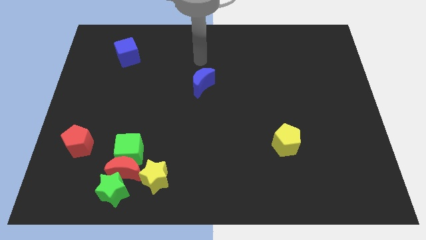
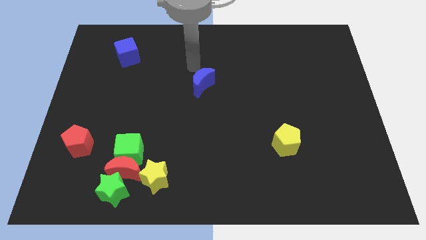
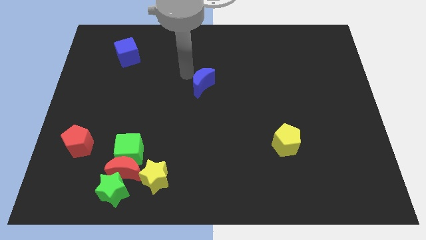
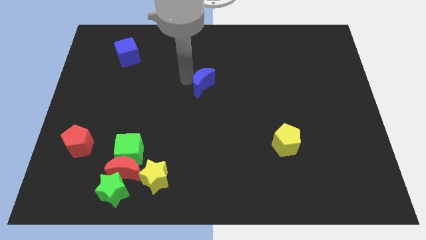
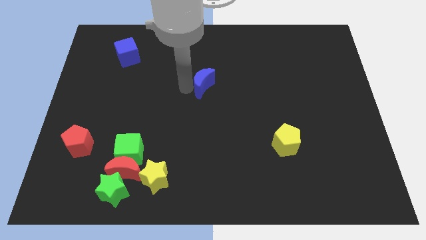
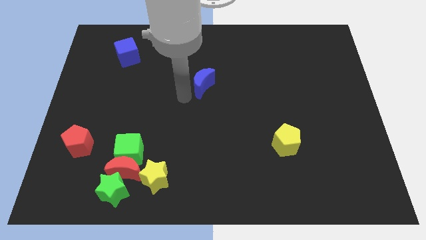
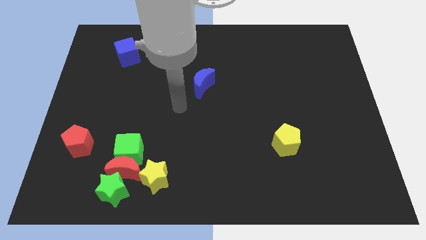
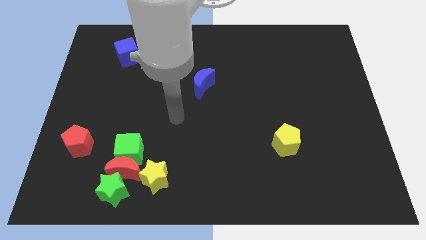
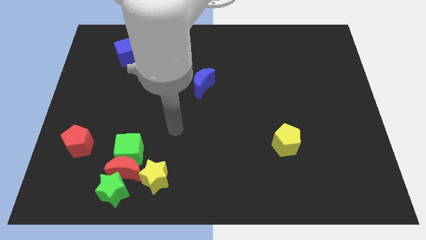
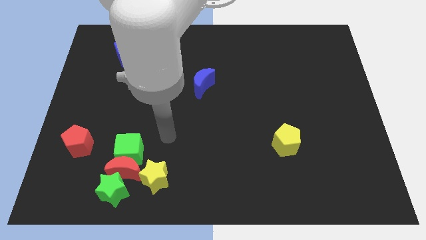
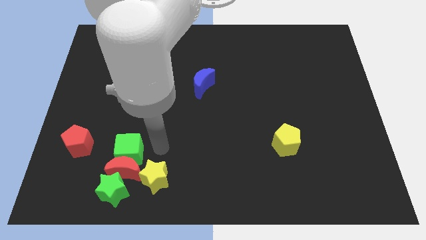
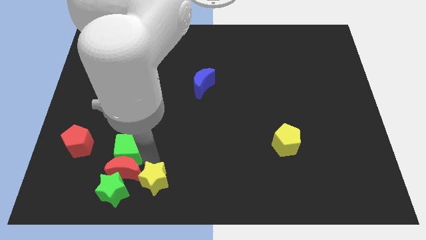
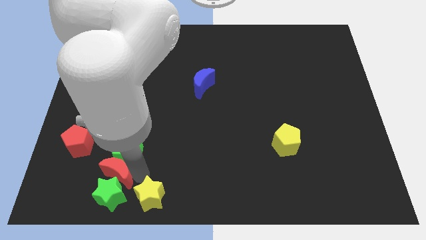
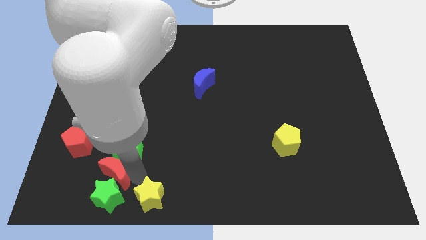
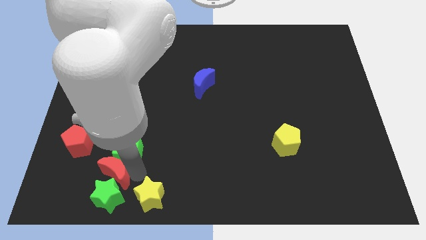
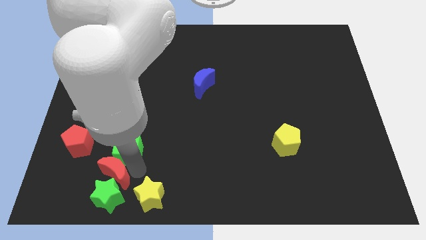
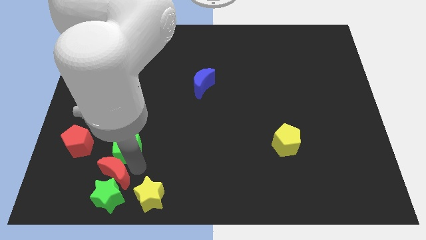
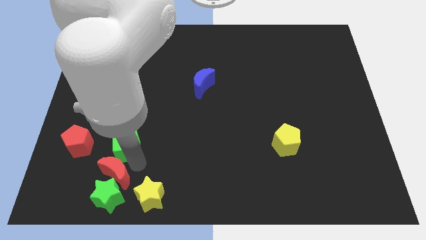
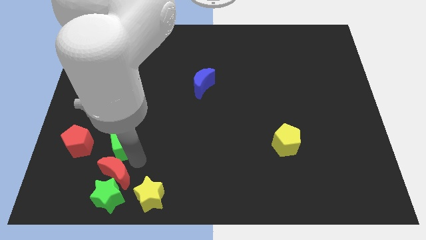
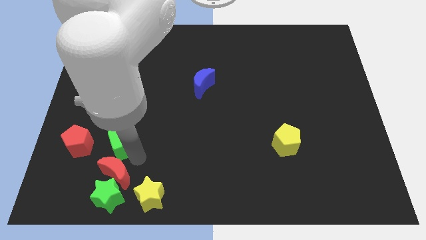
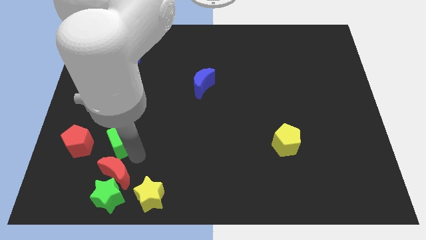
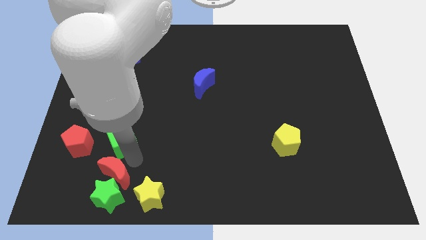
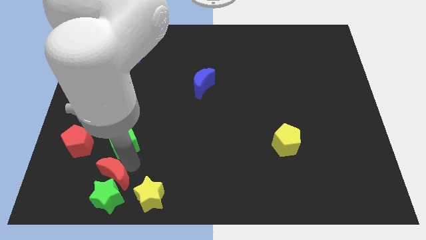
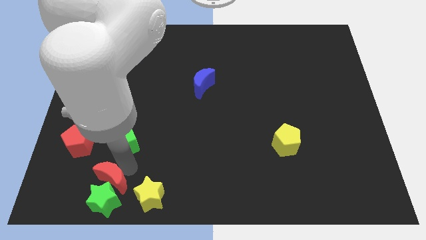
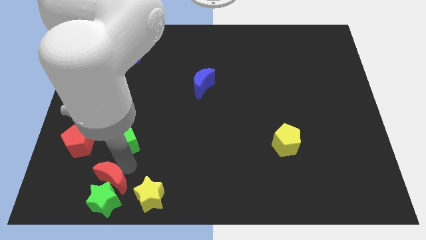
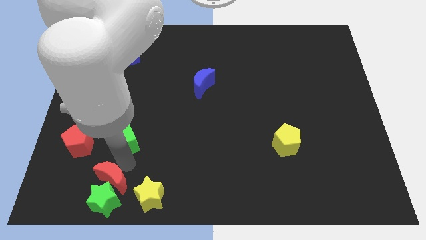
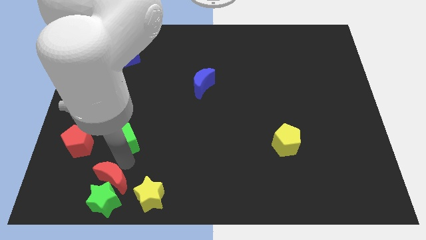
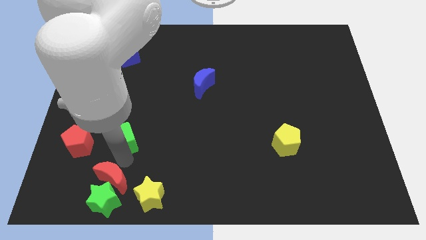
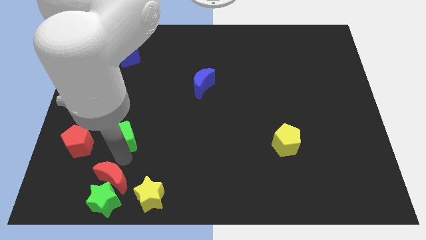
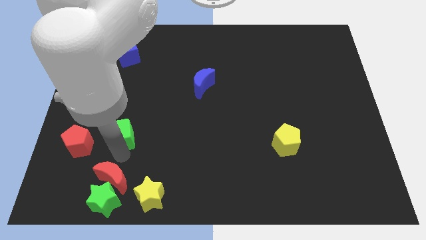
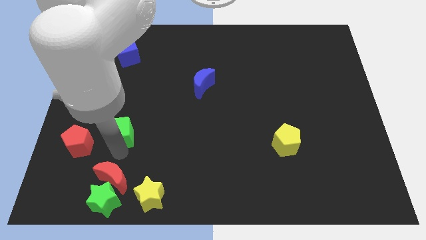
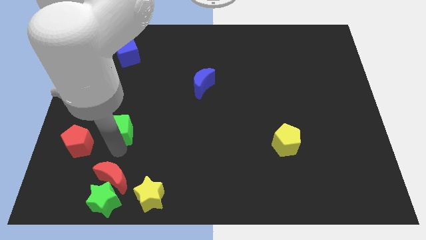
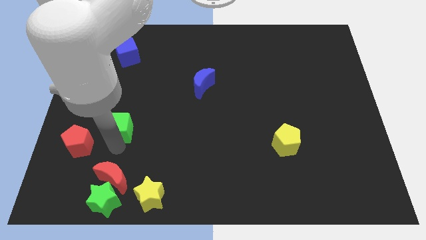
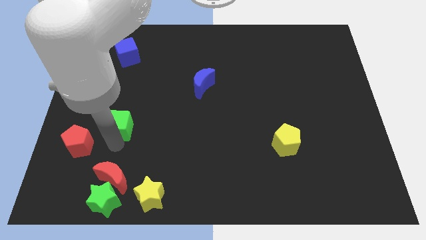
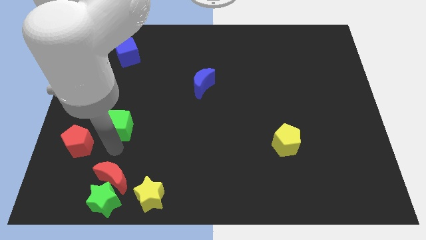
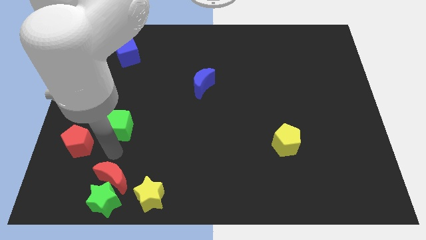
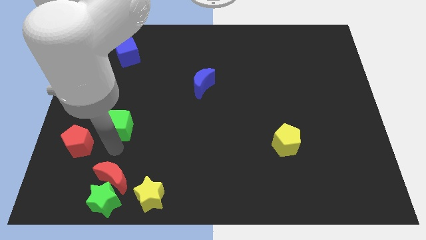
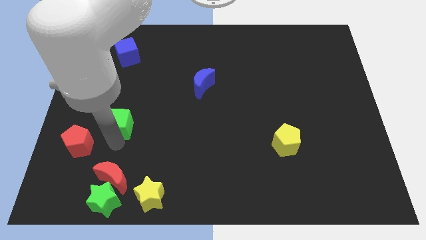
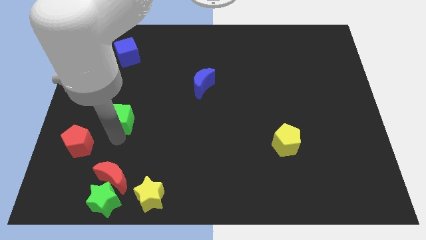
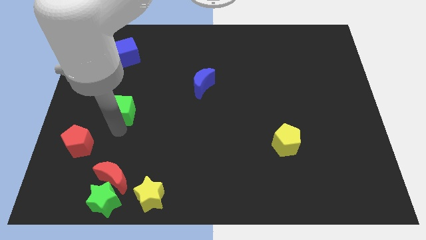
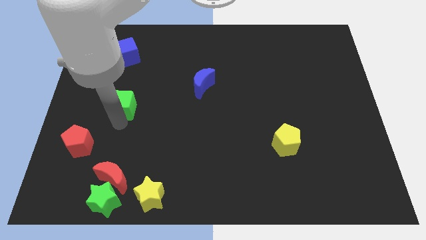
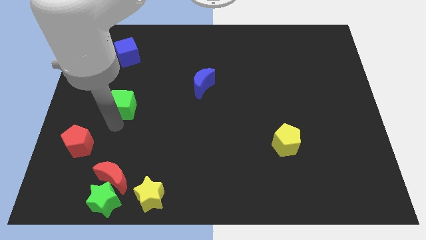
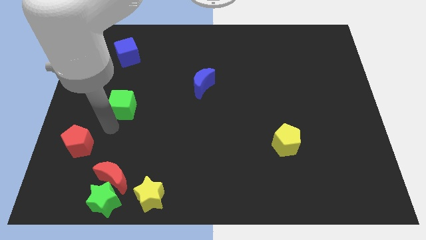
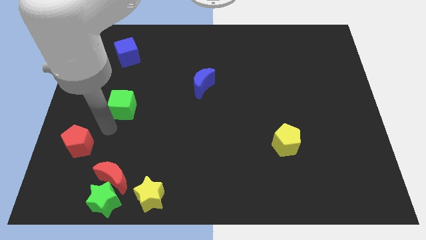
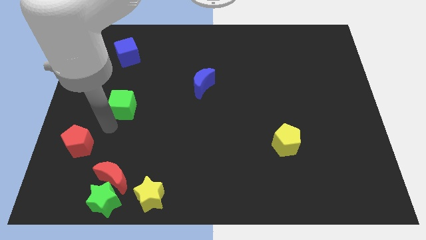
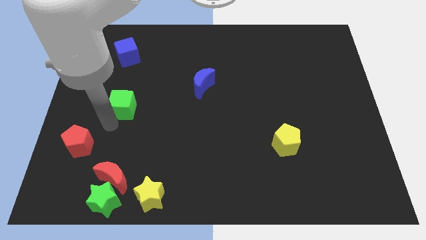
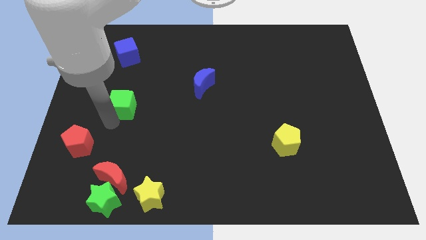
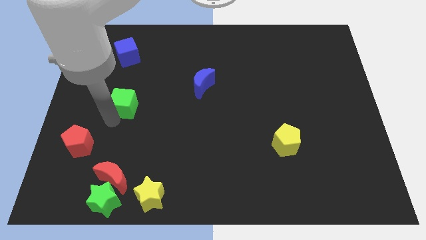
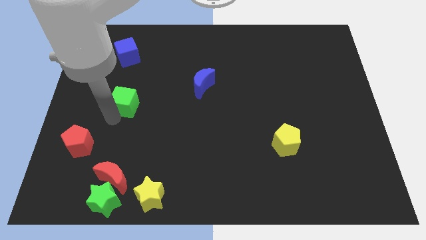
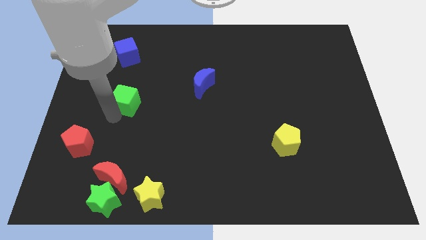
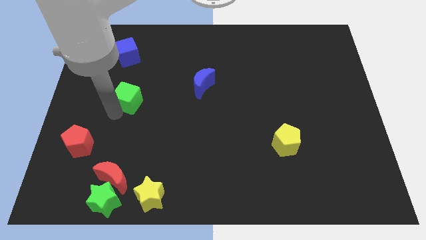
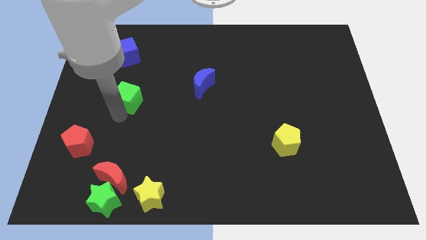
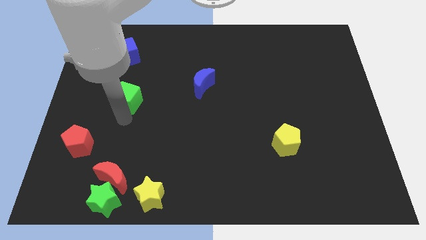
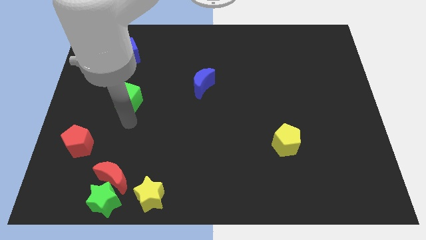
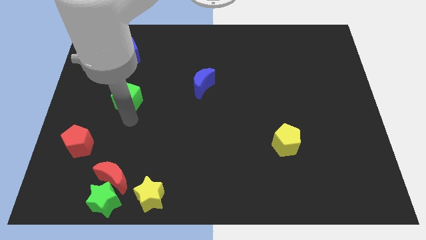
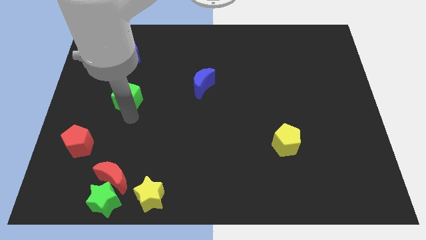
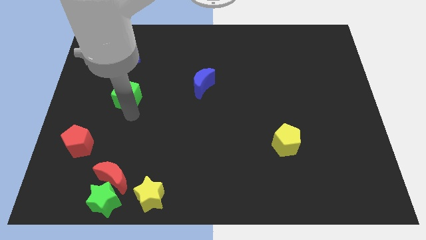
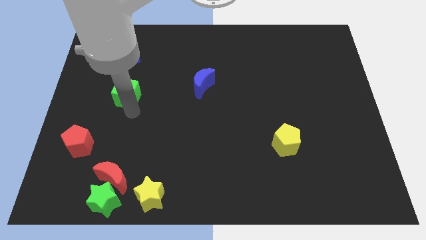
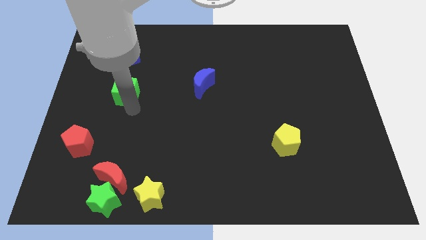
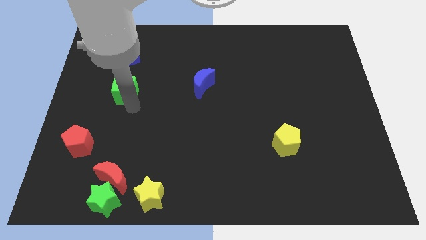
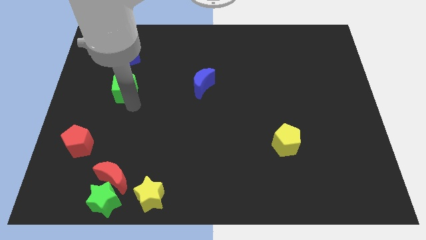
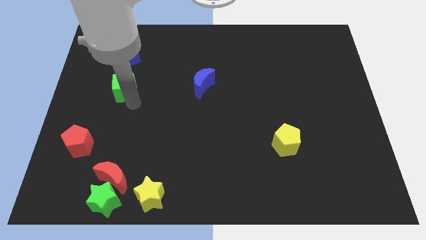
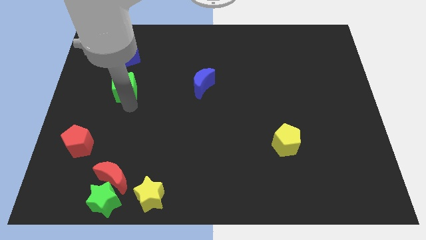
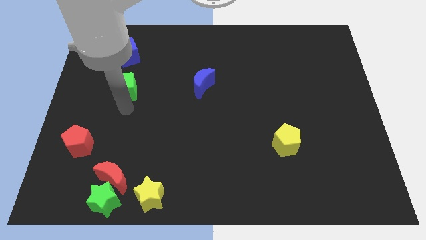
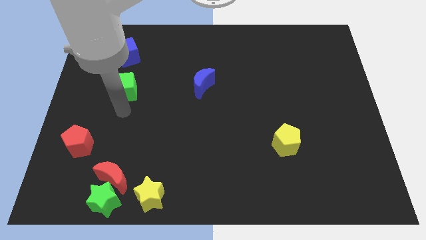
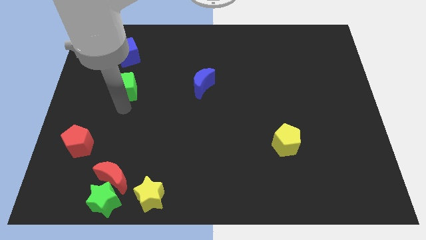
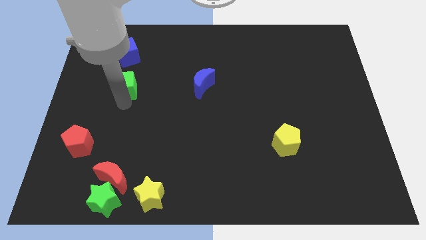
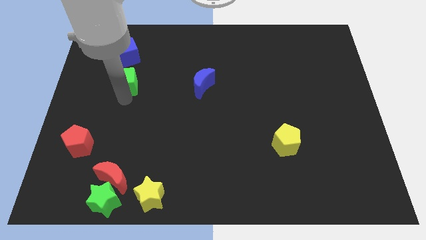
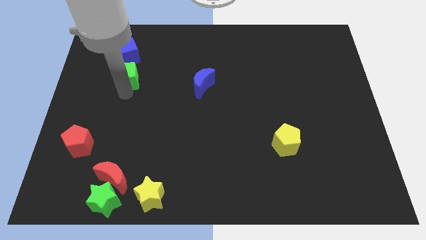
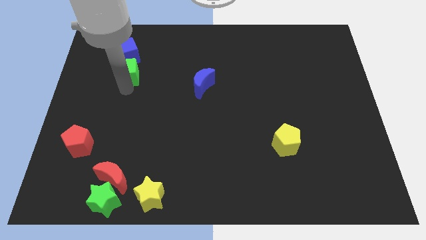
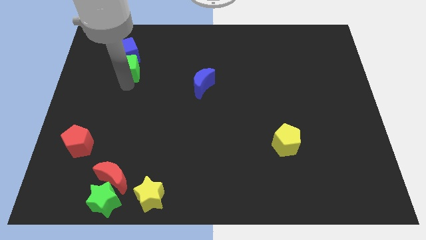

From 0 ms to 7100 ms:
move the green cube close to the blue cube

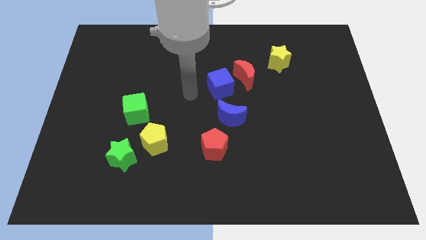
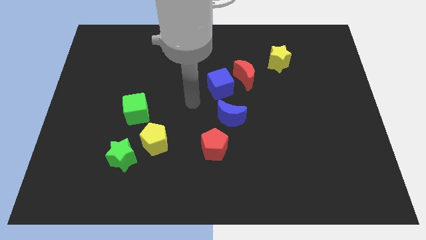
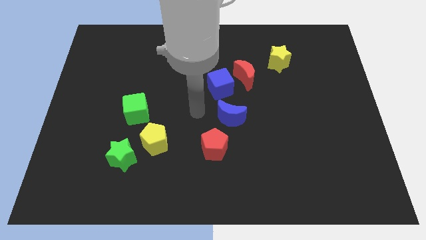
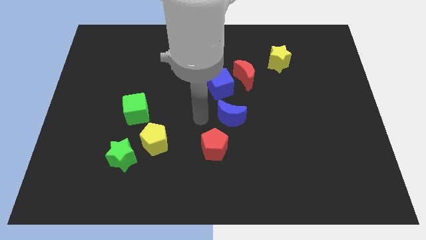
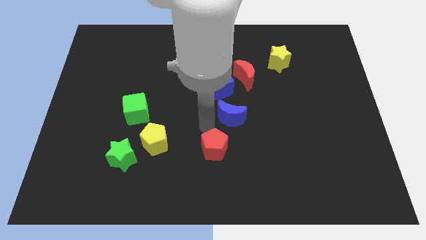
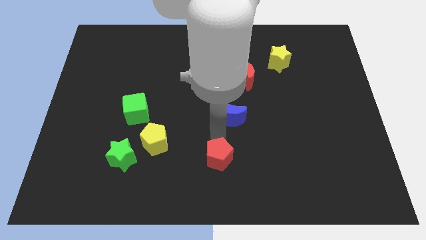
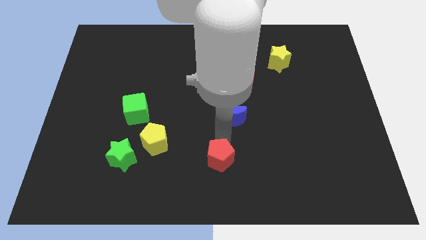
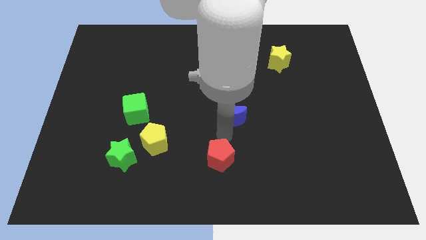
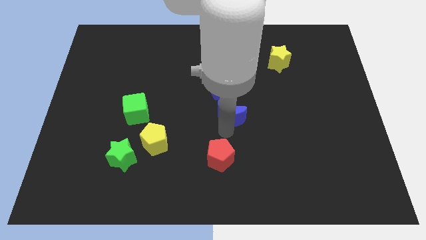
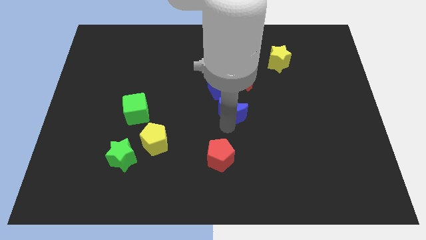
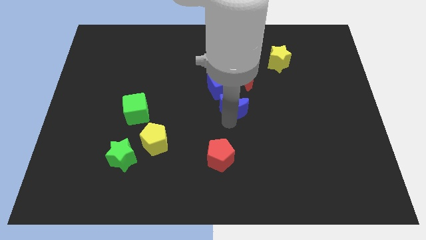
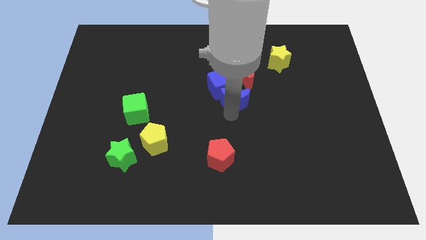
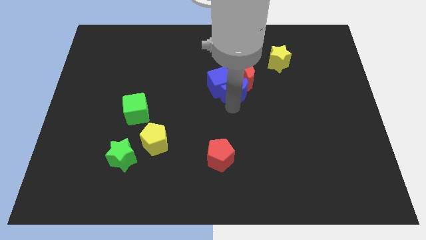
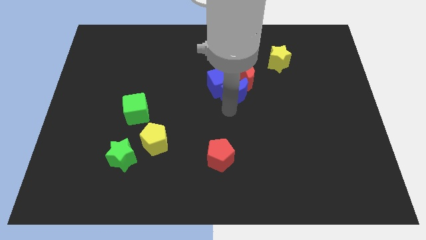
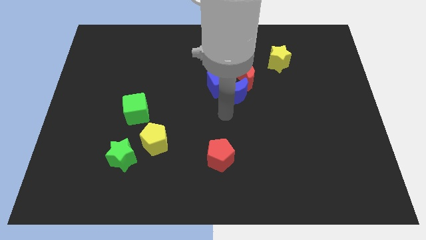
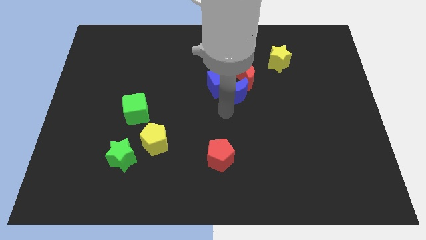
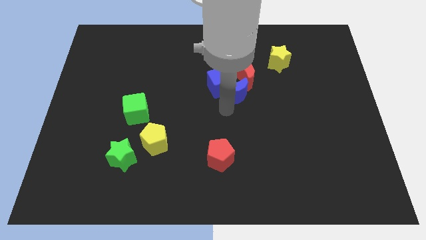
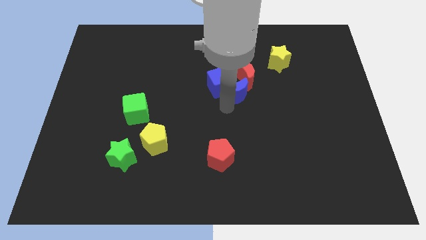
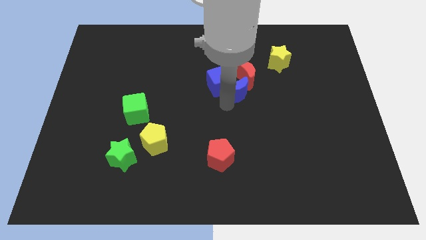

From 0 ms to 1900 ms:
slide the blue moon close to the red moon

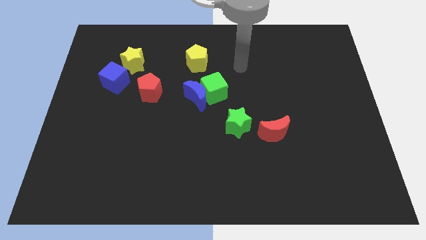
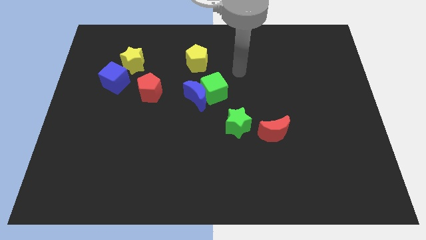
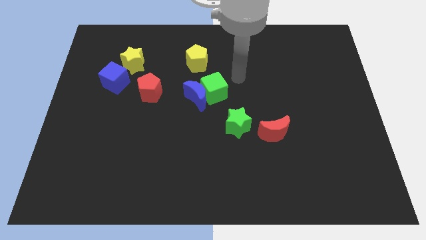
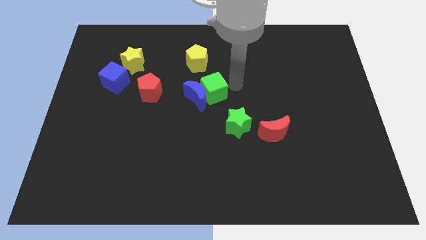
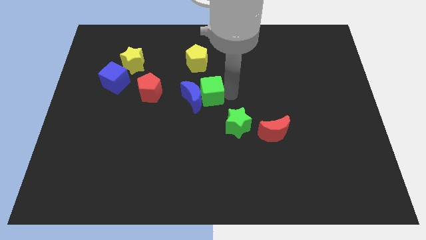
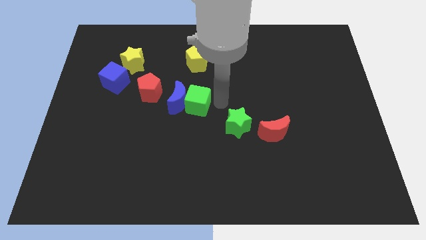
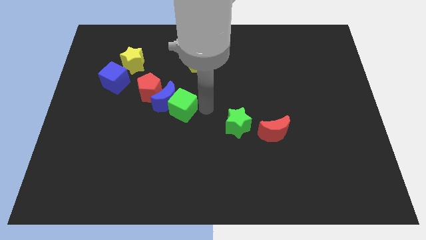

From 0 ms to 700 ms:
put the blue moon next to the red pentagon
